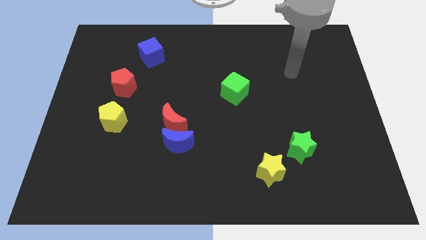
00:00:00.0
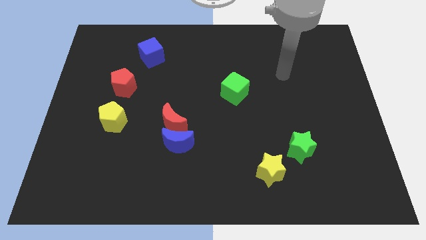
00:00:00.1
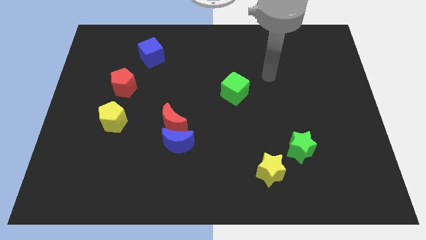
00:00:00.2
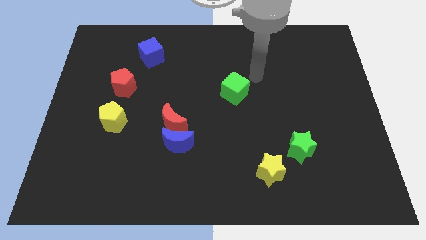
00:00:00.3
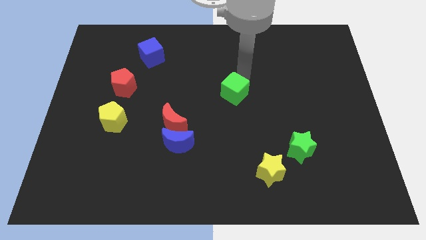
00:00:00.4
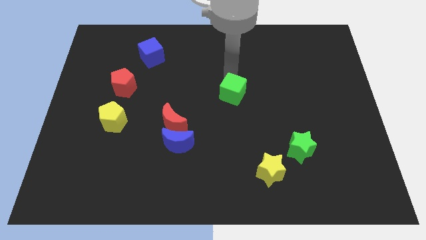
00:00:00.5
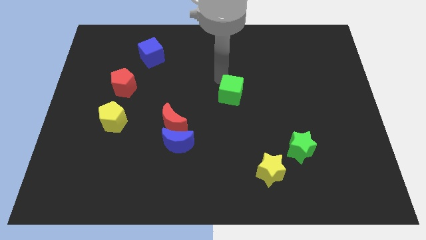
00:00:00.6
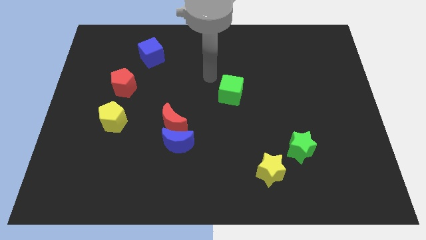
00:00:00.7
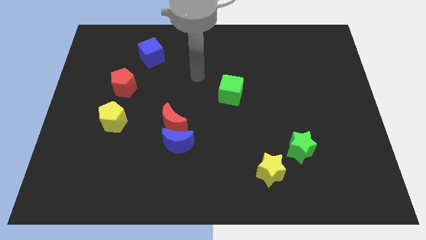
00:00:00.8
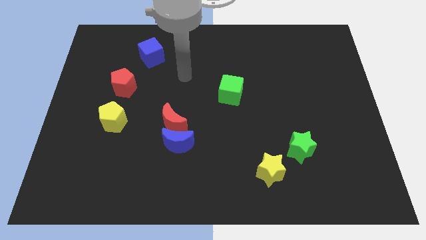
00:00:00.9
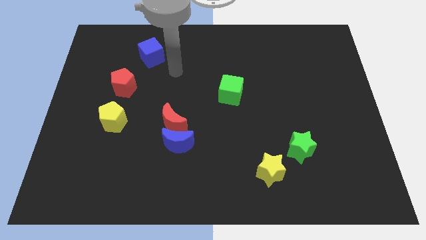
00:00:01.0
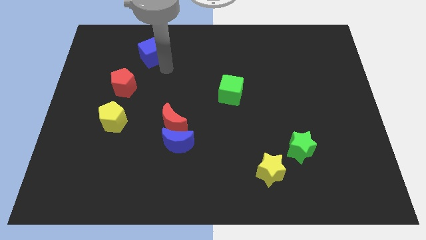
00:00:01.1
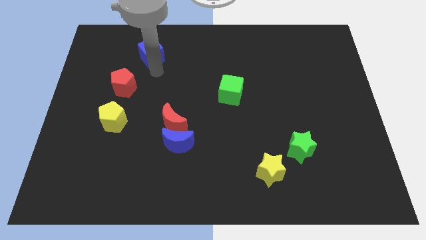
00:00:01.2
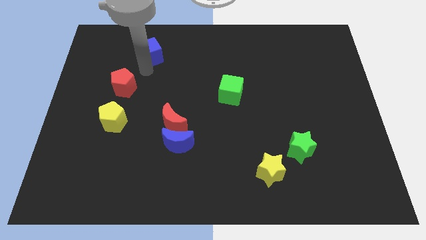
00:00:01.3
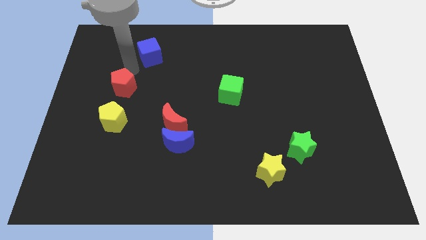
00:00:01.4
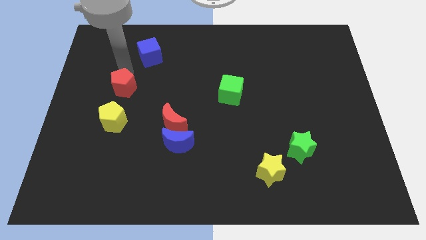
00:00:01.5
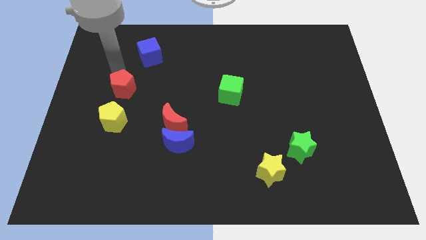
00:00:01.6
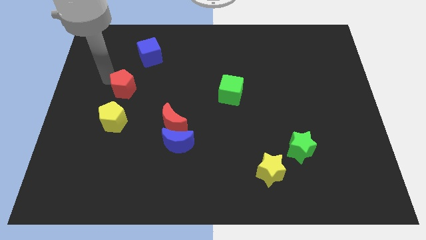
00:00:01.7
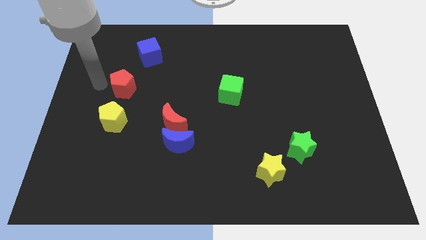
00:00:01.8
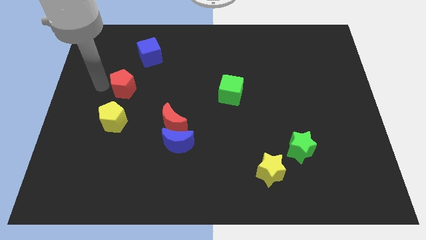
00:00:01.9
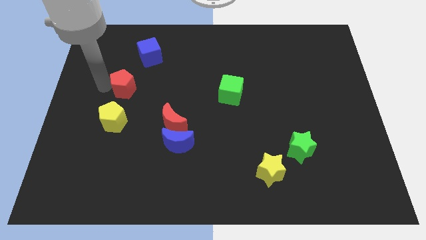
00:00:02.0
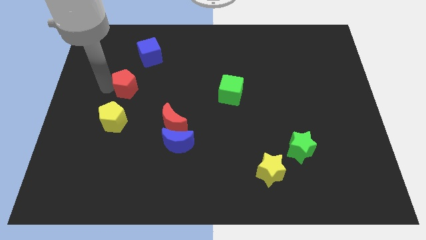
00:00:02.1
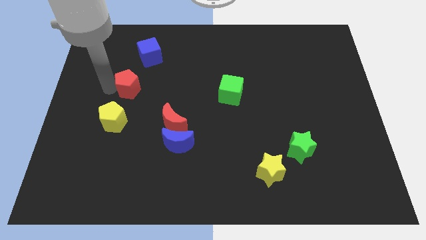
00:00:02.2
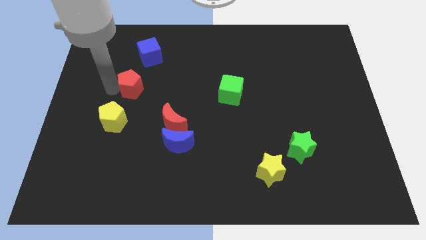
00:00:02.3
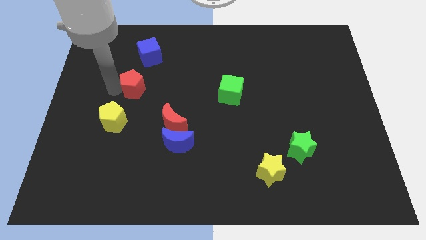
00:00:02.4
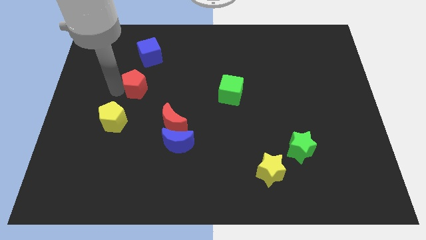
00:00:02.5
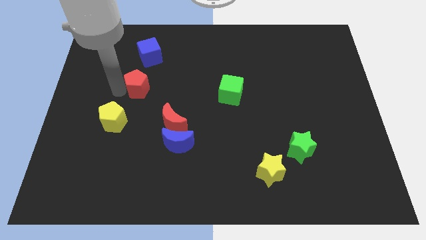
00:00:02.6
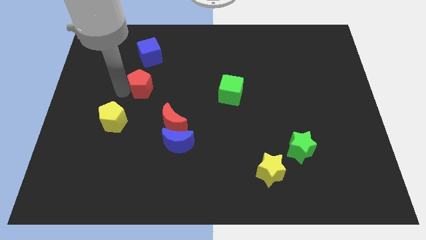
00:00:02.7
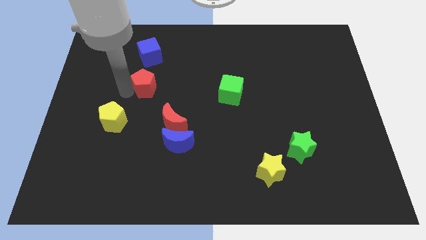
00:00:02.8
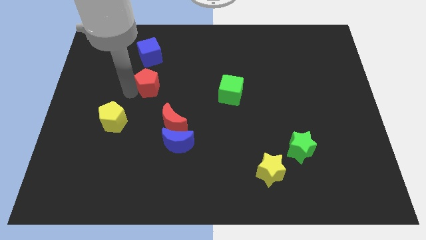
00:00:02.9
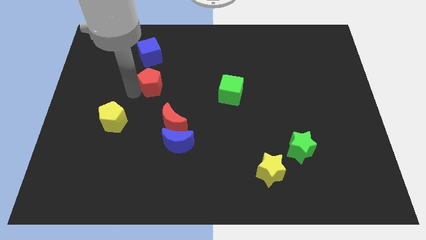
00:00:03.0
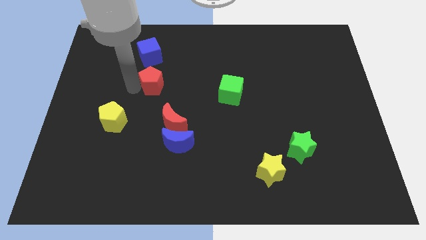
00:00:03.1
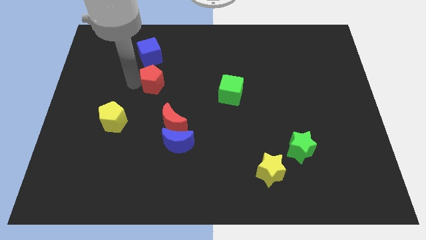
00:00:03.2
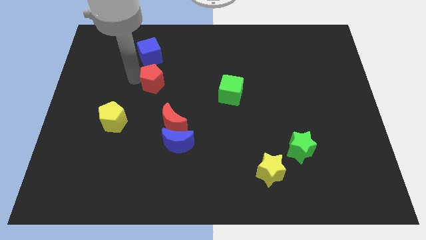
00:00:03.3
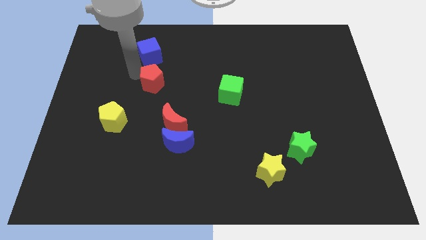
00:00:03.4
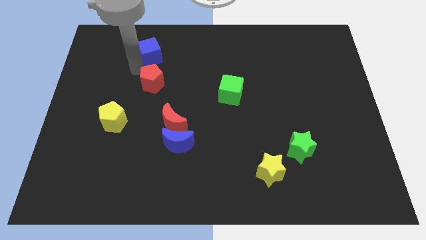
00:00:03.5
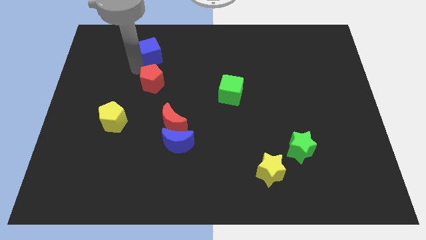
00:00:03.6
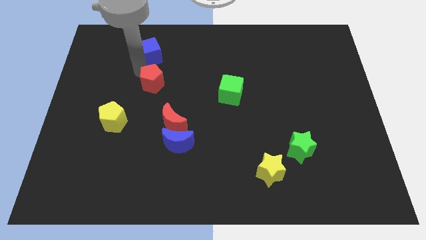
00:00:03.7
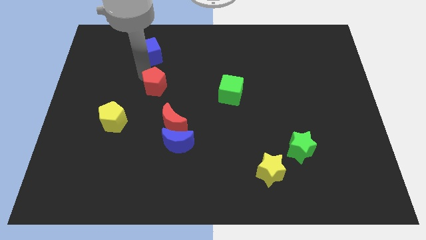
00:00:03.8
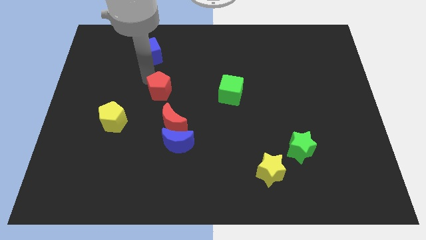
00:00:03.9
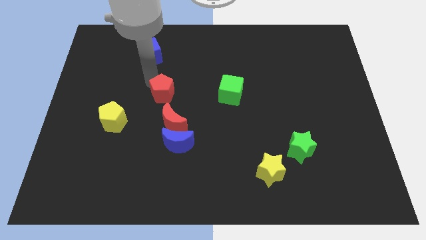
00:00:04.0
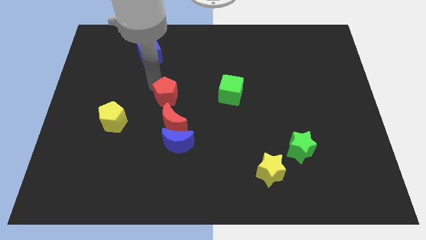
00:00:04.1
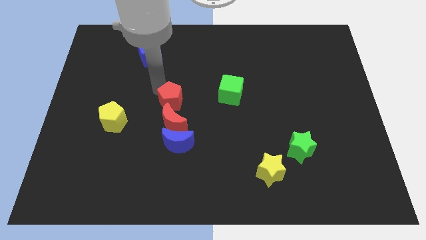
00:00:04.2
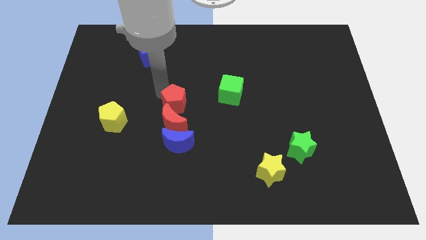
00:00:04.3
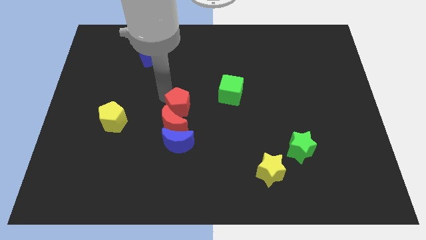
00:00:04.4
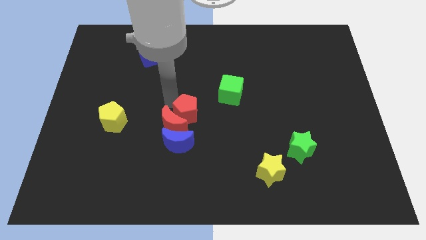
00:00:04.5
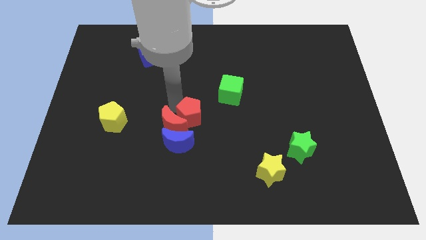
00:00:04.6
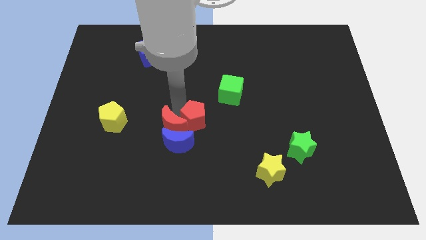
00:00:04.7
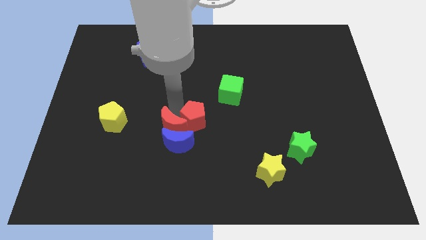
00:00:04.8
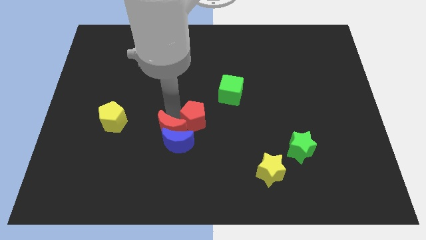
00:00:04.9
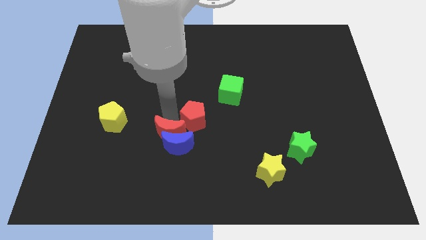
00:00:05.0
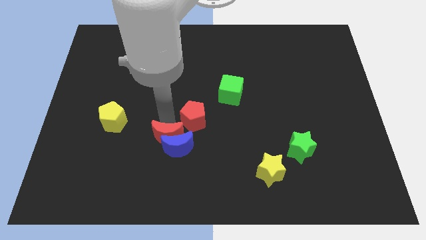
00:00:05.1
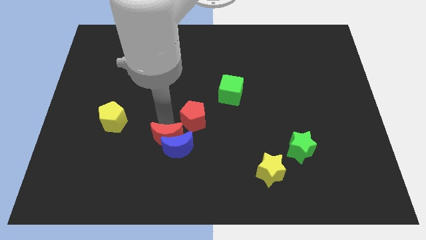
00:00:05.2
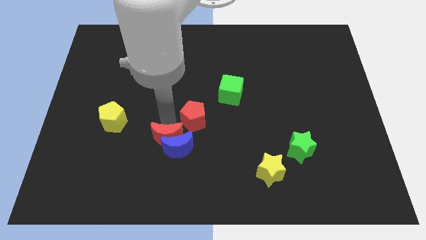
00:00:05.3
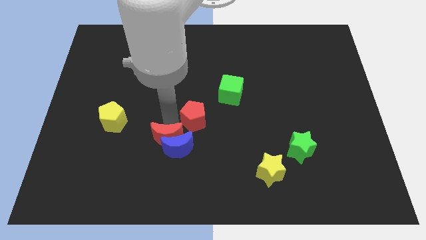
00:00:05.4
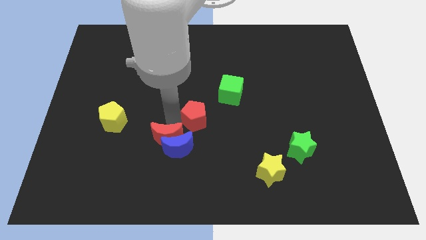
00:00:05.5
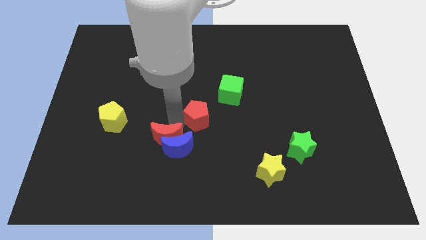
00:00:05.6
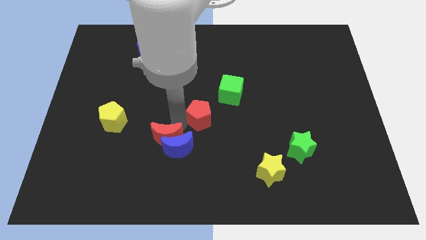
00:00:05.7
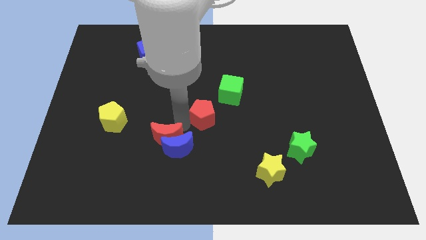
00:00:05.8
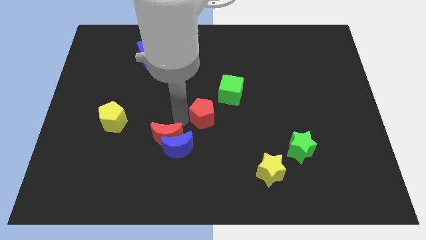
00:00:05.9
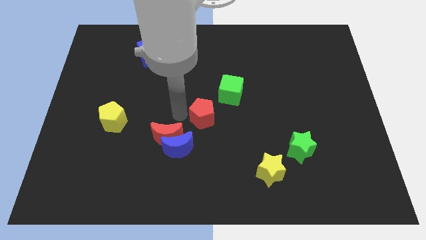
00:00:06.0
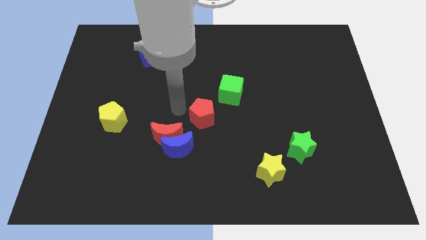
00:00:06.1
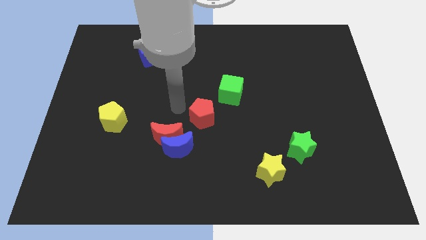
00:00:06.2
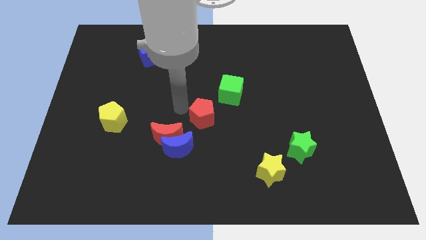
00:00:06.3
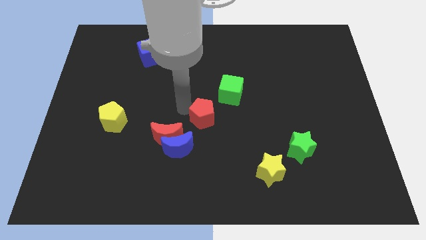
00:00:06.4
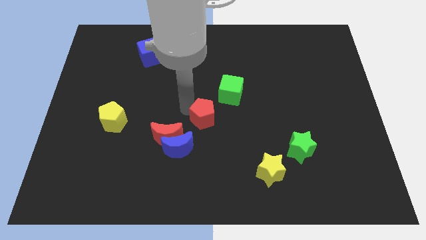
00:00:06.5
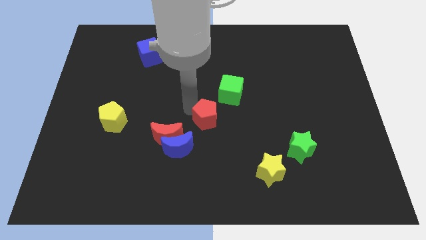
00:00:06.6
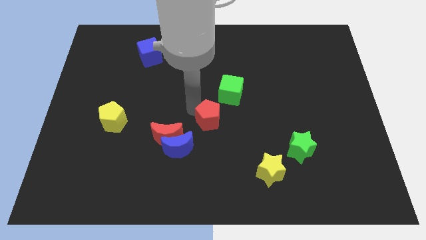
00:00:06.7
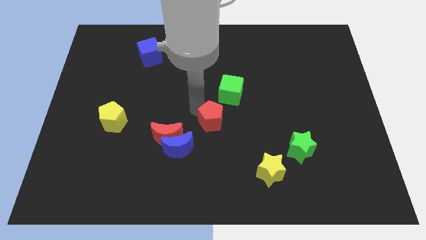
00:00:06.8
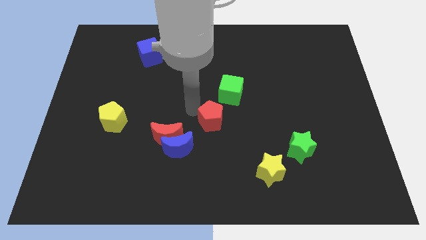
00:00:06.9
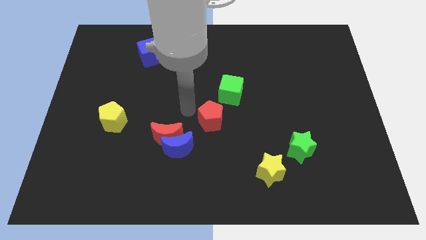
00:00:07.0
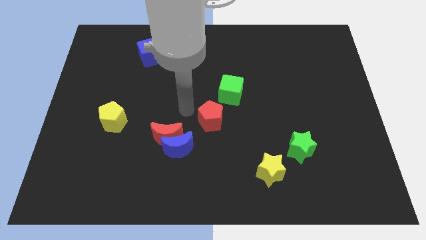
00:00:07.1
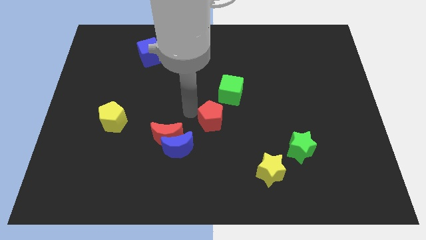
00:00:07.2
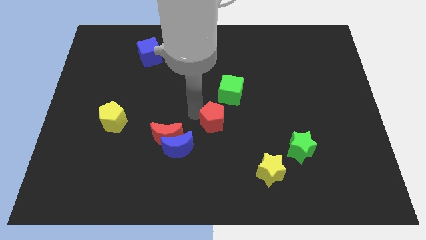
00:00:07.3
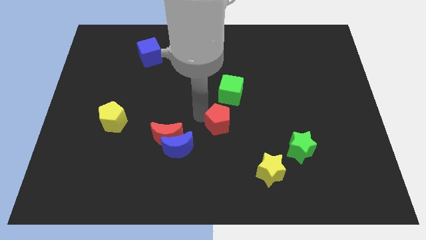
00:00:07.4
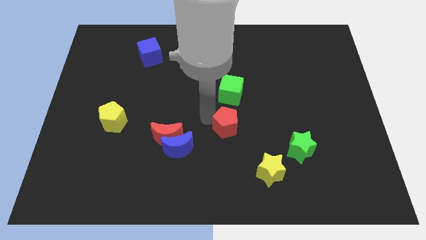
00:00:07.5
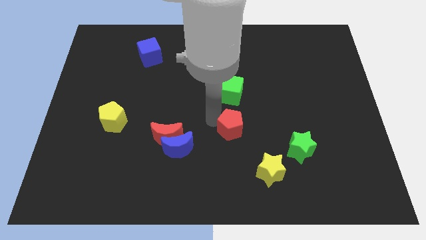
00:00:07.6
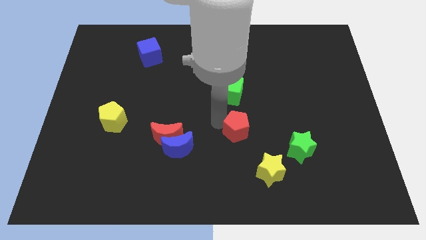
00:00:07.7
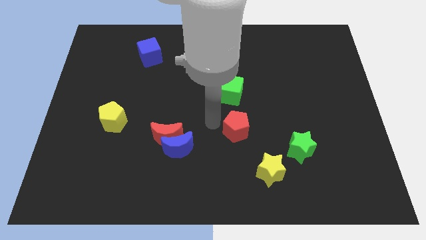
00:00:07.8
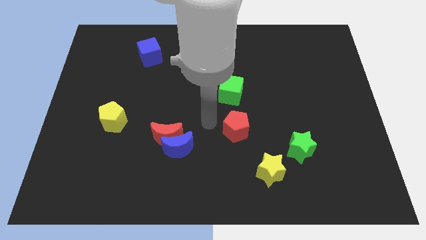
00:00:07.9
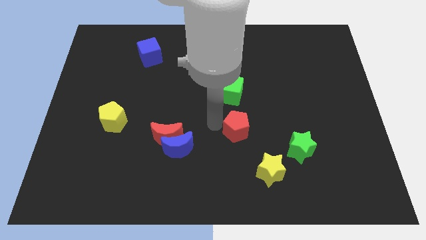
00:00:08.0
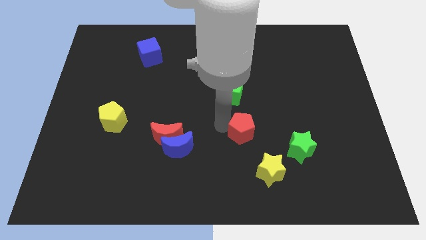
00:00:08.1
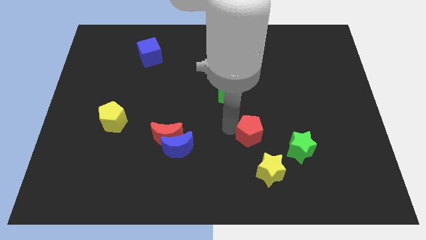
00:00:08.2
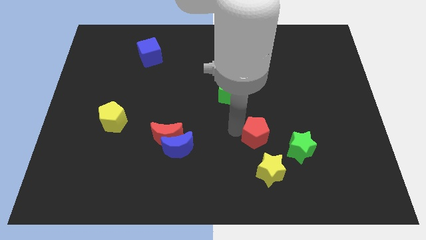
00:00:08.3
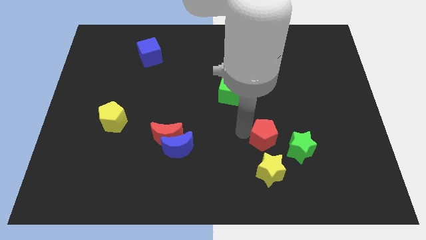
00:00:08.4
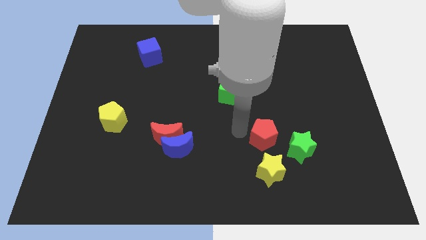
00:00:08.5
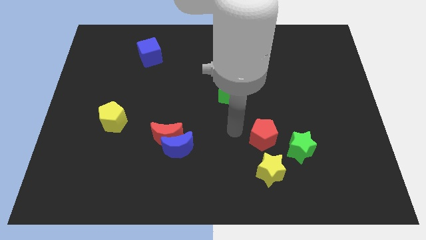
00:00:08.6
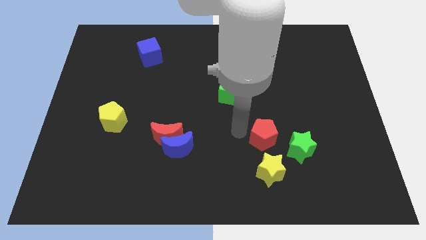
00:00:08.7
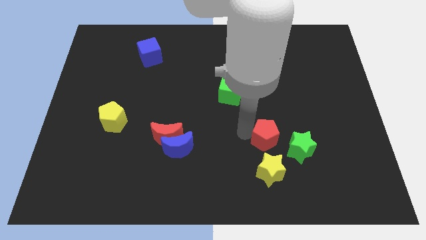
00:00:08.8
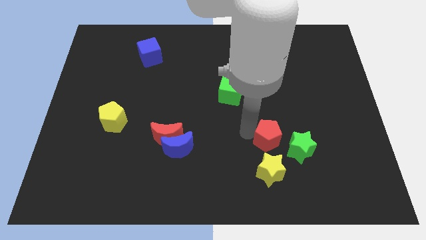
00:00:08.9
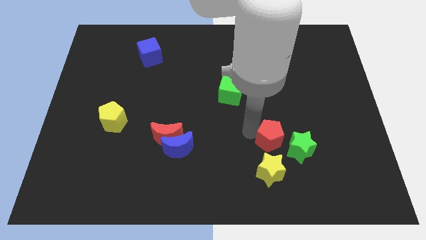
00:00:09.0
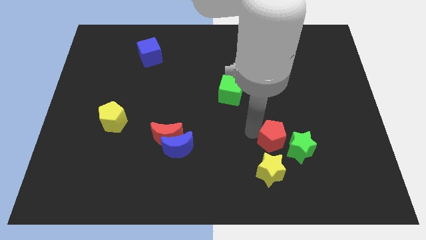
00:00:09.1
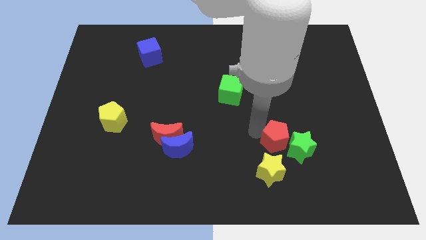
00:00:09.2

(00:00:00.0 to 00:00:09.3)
move the red pentagon next to the green star
